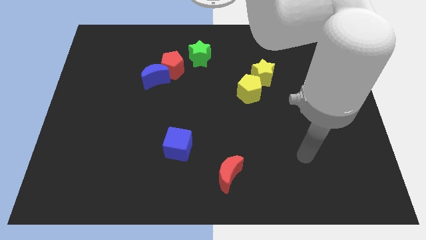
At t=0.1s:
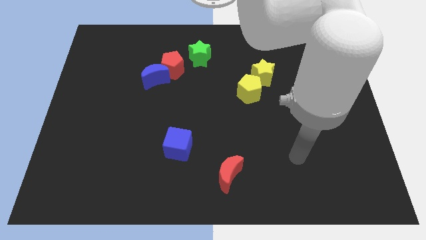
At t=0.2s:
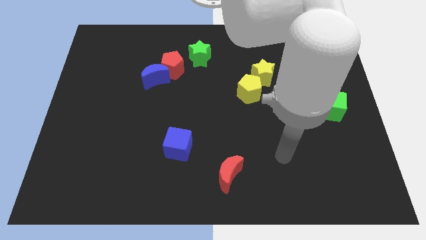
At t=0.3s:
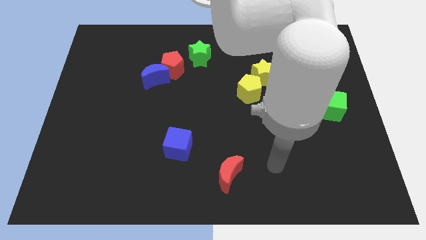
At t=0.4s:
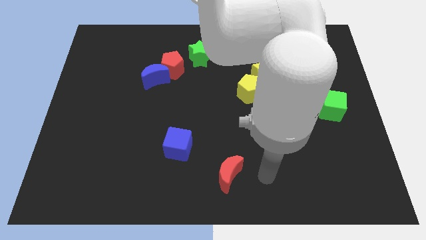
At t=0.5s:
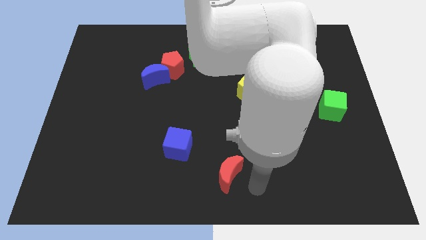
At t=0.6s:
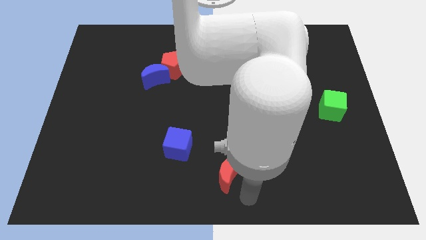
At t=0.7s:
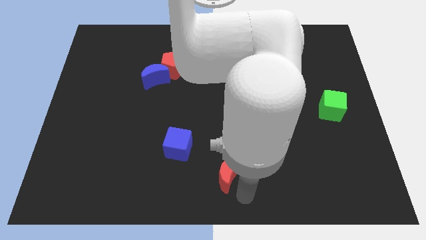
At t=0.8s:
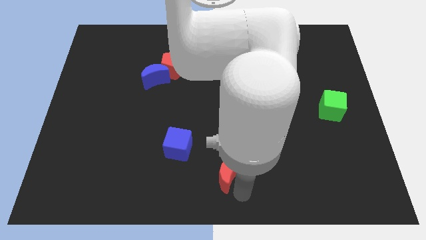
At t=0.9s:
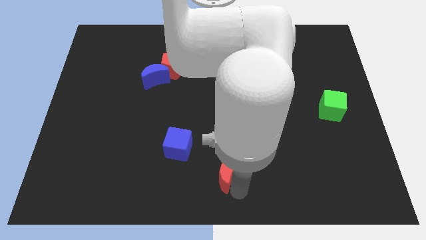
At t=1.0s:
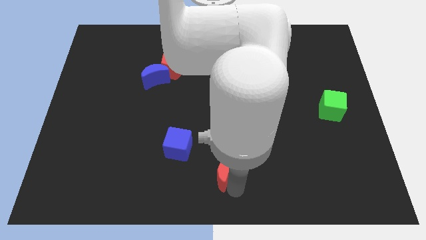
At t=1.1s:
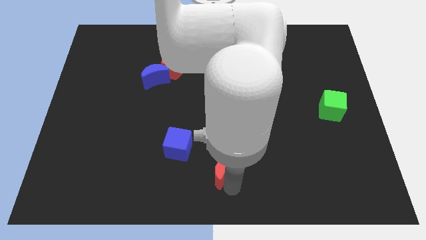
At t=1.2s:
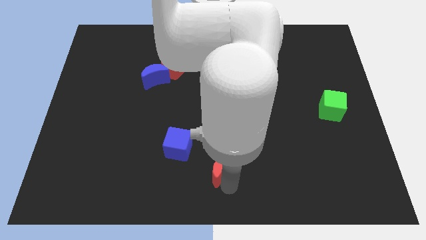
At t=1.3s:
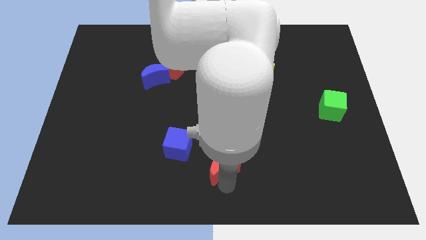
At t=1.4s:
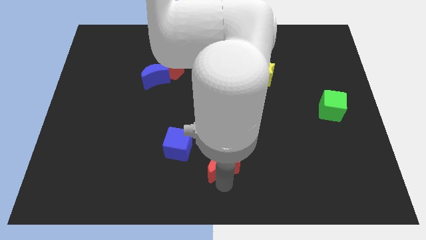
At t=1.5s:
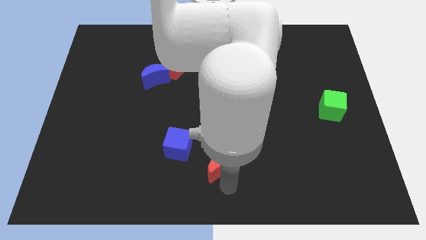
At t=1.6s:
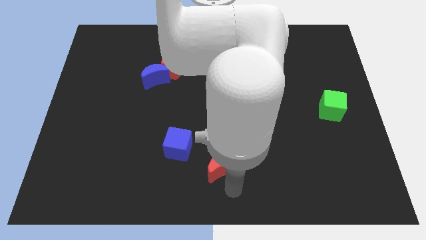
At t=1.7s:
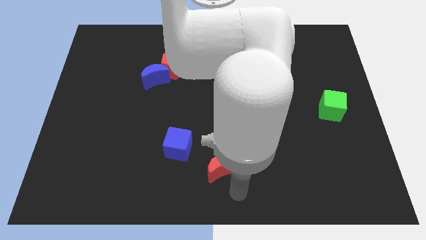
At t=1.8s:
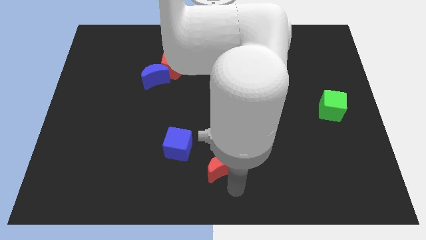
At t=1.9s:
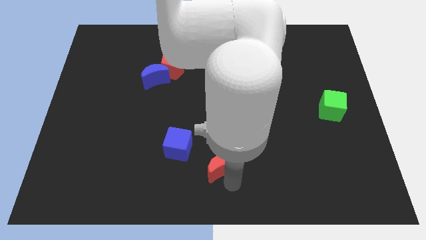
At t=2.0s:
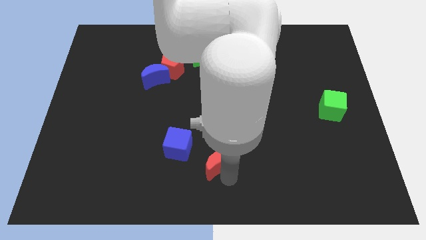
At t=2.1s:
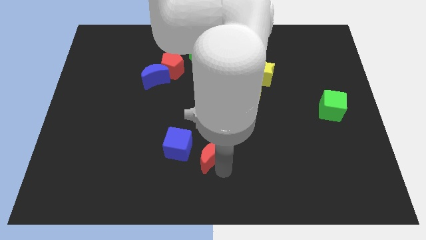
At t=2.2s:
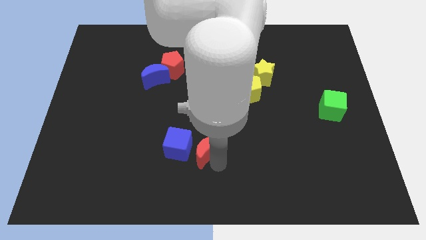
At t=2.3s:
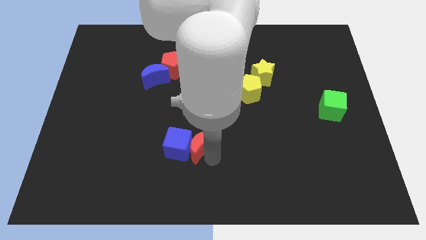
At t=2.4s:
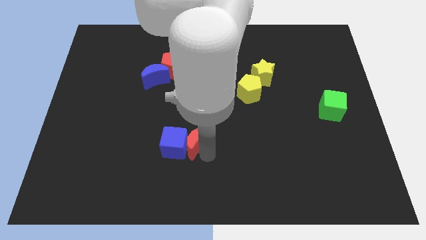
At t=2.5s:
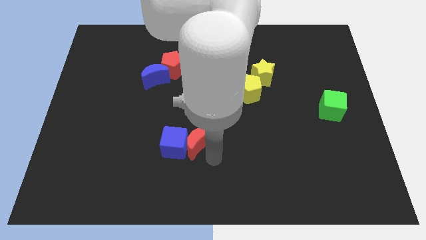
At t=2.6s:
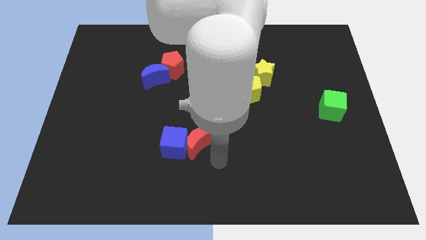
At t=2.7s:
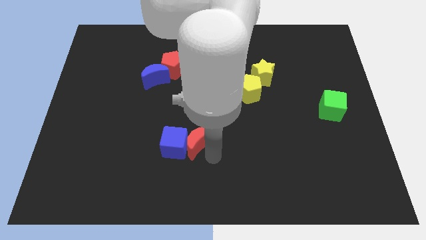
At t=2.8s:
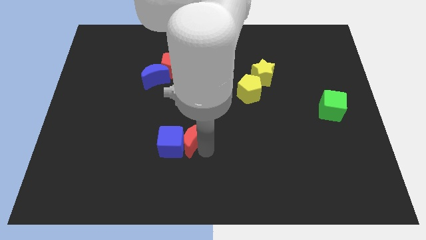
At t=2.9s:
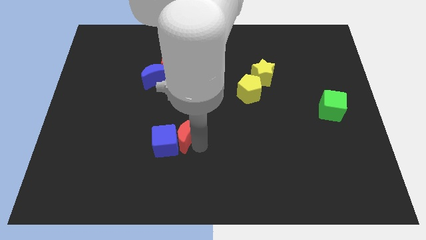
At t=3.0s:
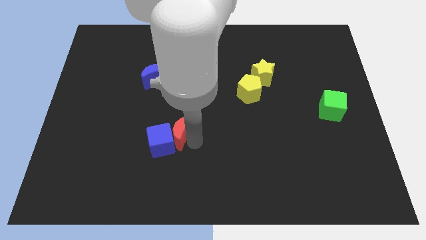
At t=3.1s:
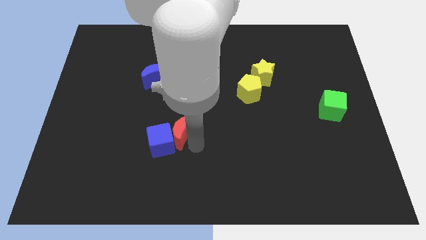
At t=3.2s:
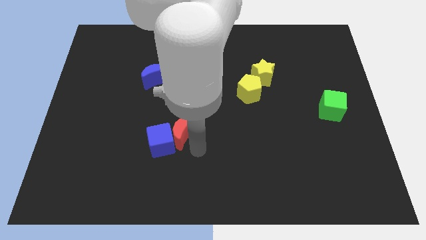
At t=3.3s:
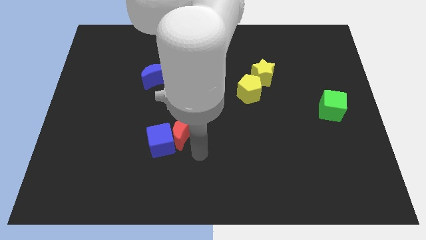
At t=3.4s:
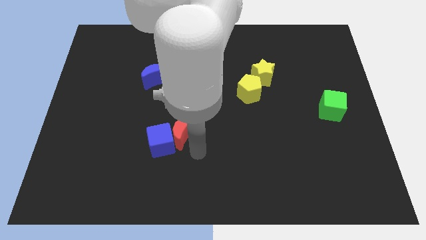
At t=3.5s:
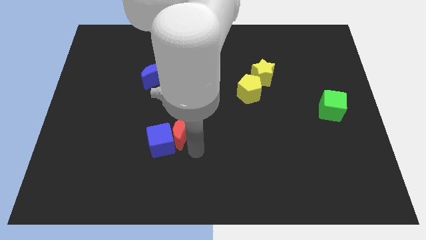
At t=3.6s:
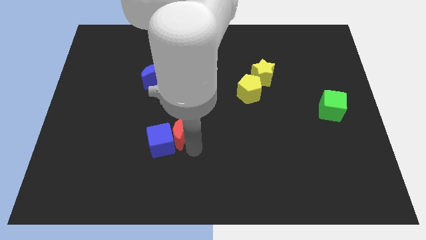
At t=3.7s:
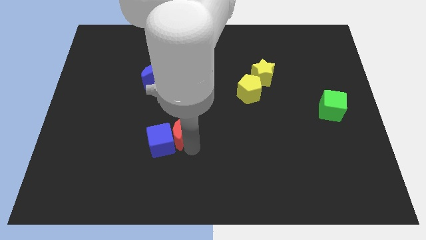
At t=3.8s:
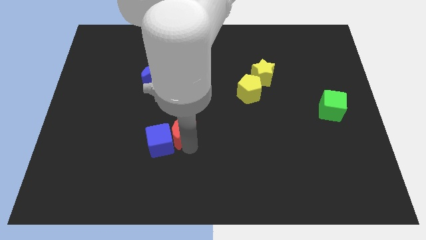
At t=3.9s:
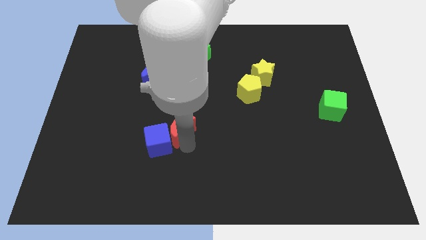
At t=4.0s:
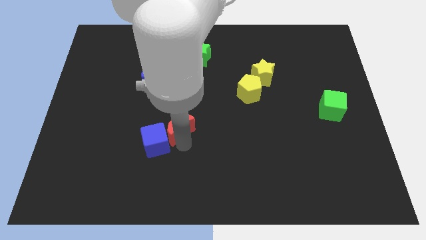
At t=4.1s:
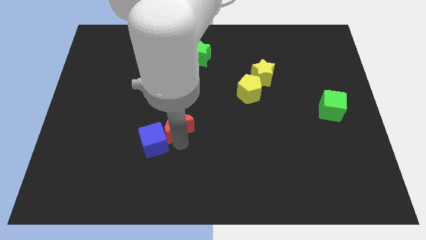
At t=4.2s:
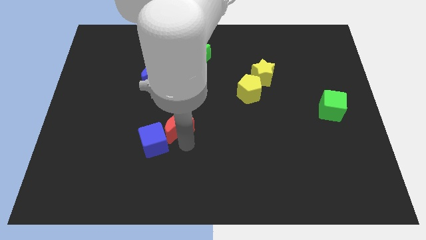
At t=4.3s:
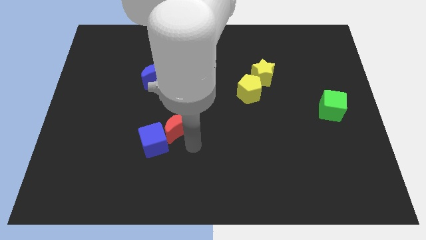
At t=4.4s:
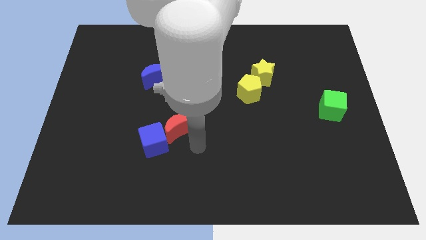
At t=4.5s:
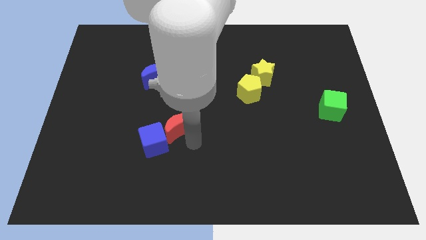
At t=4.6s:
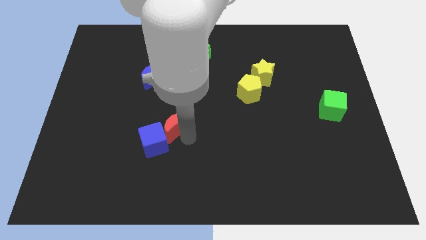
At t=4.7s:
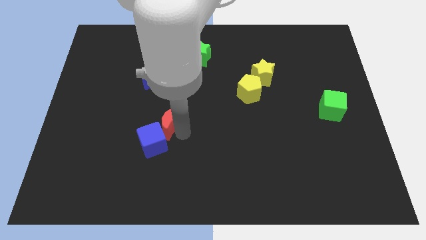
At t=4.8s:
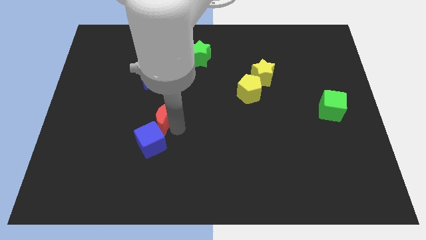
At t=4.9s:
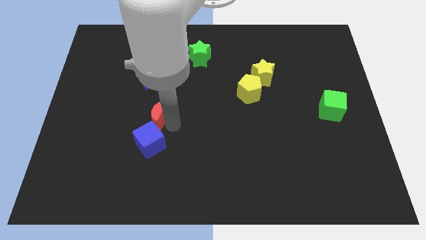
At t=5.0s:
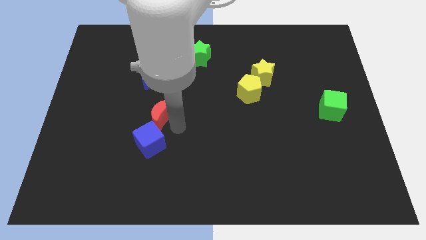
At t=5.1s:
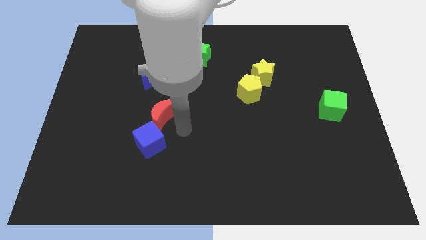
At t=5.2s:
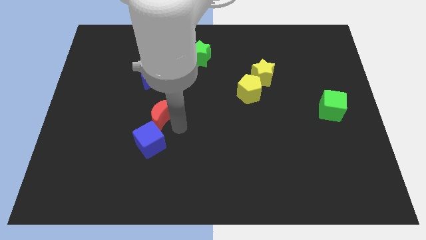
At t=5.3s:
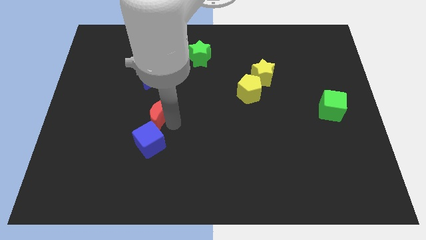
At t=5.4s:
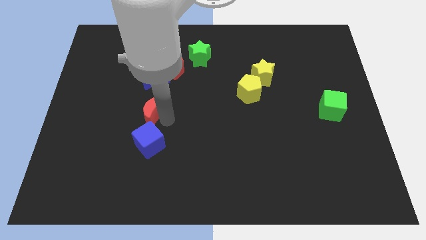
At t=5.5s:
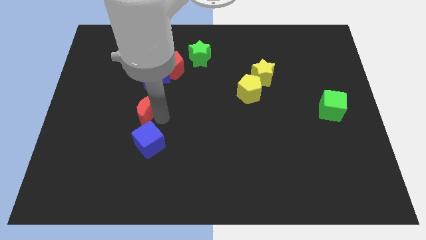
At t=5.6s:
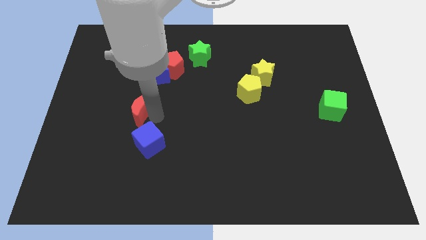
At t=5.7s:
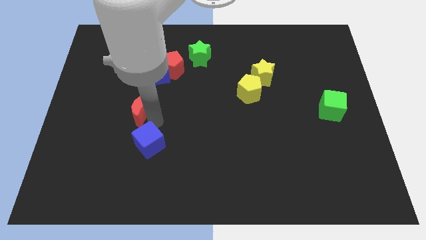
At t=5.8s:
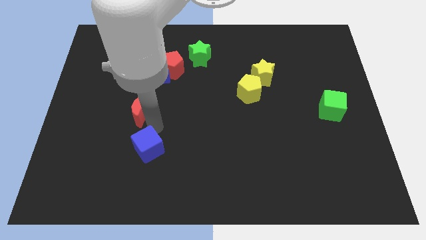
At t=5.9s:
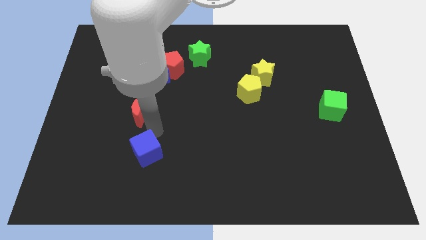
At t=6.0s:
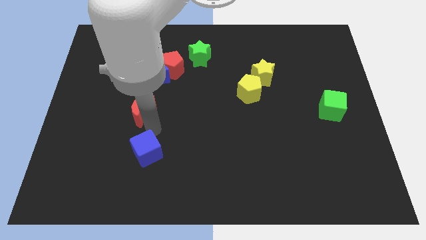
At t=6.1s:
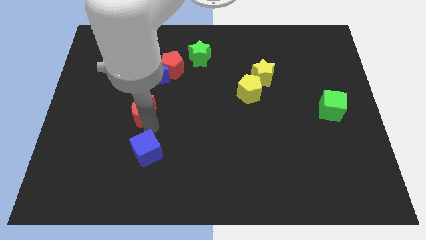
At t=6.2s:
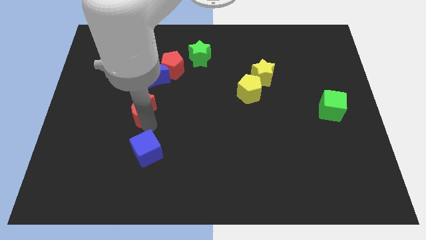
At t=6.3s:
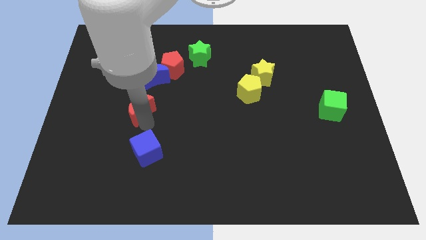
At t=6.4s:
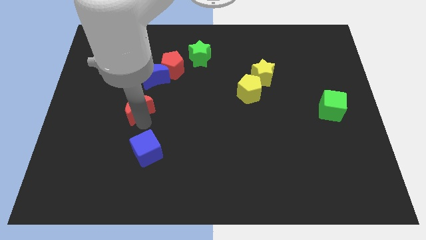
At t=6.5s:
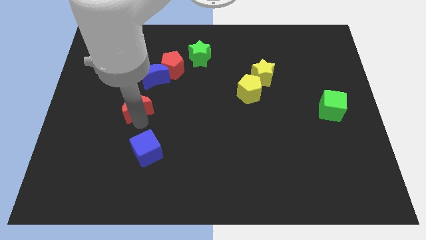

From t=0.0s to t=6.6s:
push the red moon diagonally down and to the left of the blue moon
